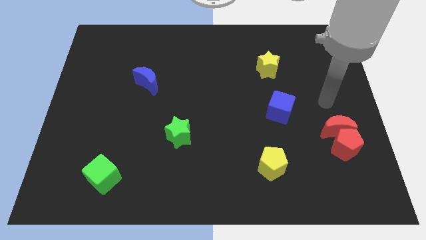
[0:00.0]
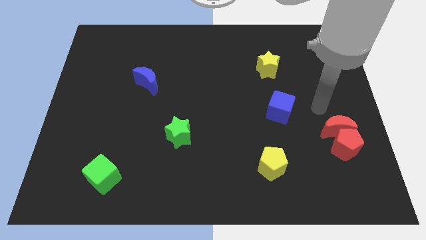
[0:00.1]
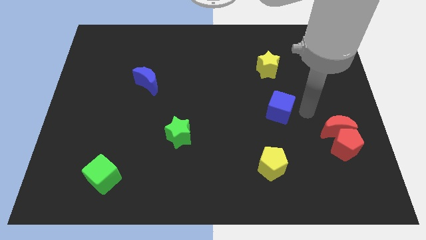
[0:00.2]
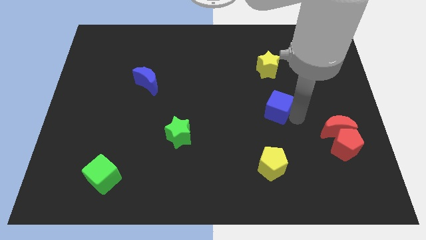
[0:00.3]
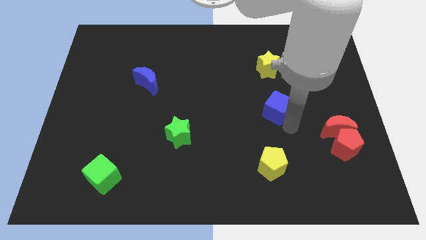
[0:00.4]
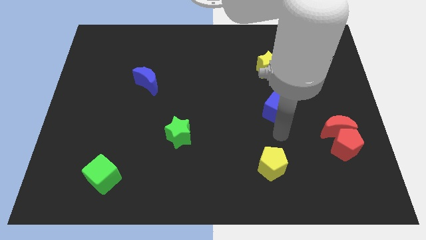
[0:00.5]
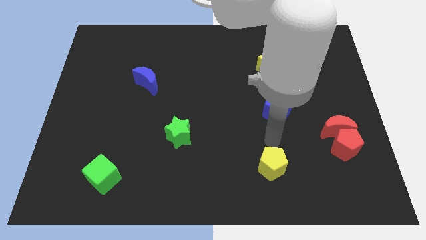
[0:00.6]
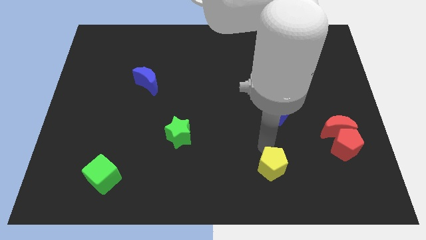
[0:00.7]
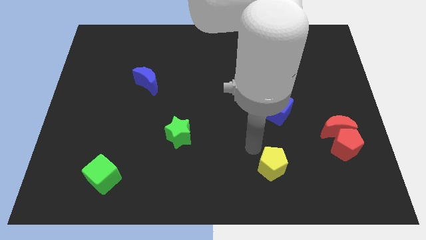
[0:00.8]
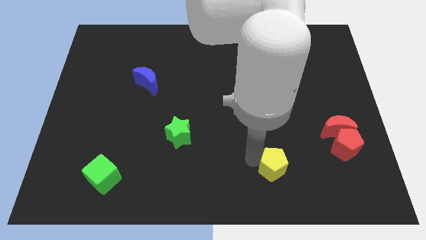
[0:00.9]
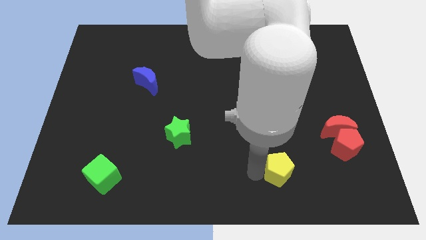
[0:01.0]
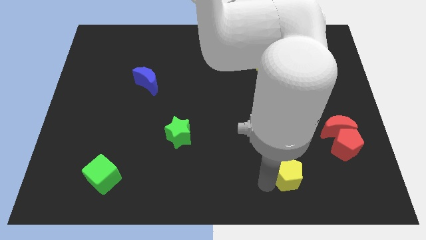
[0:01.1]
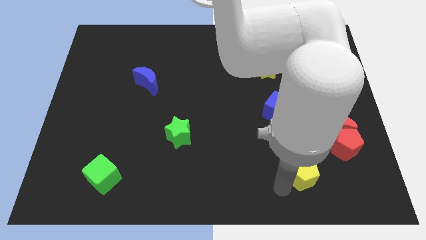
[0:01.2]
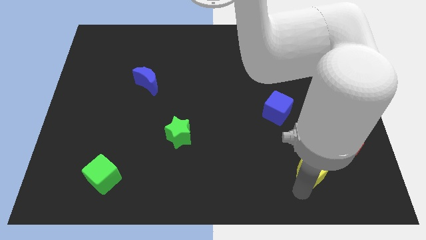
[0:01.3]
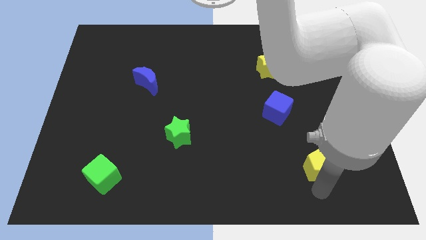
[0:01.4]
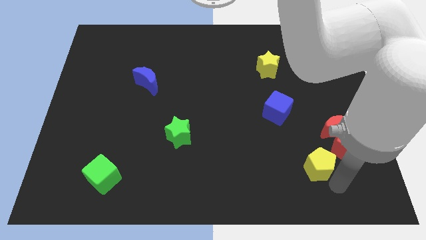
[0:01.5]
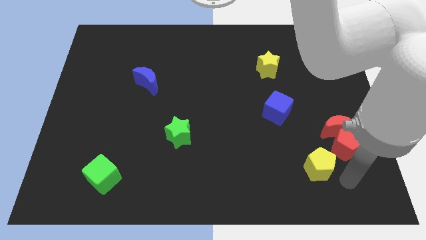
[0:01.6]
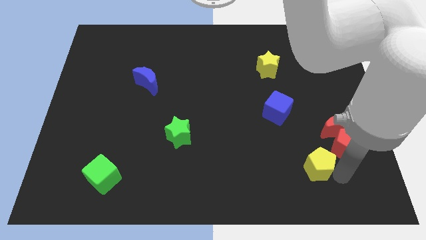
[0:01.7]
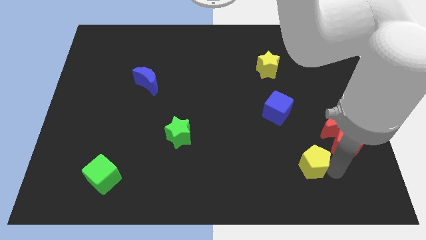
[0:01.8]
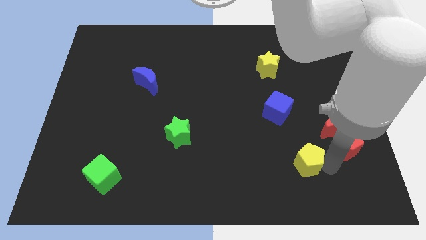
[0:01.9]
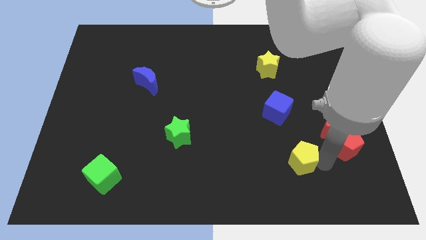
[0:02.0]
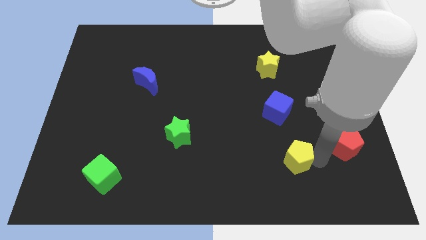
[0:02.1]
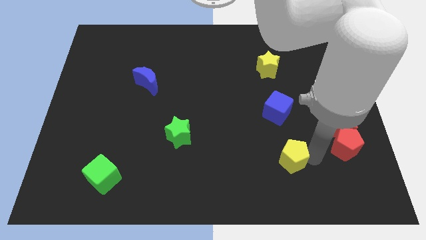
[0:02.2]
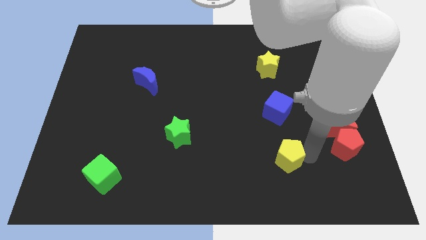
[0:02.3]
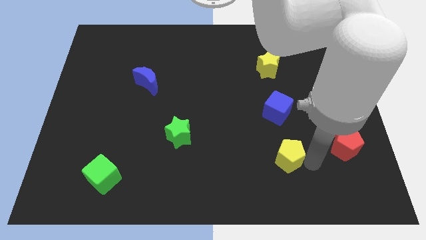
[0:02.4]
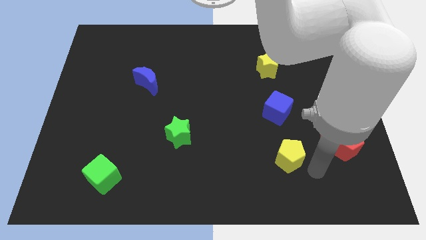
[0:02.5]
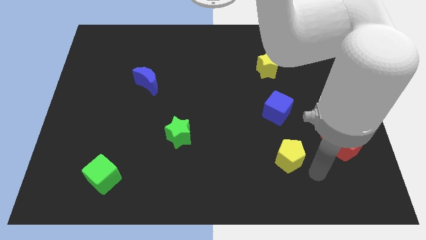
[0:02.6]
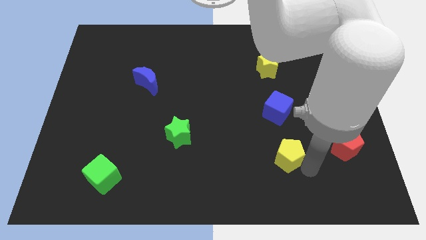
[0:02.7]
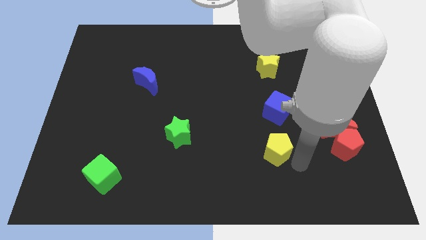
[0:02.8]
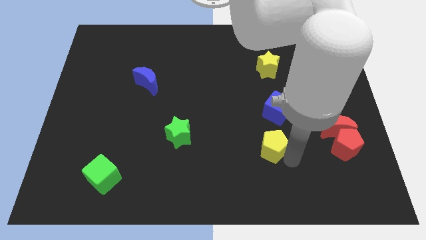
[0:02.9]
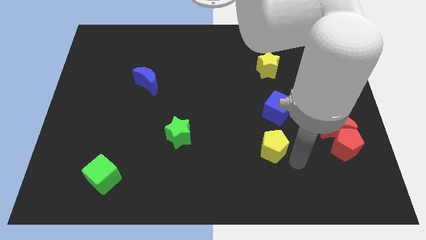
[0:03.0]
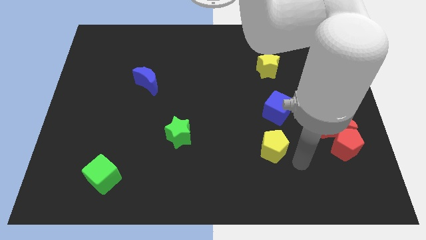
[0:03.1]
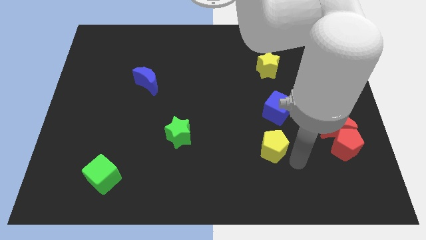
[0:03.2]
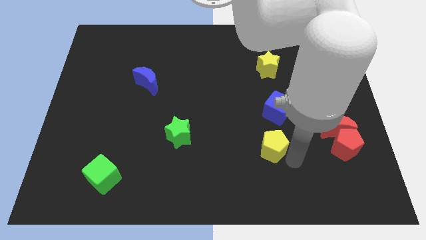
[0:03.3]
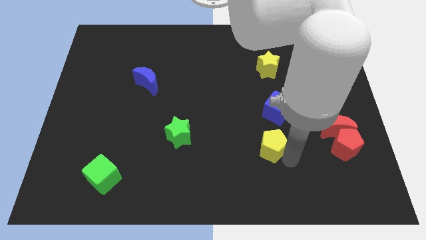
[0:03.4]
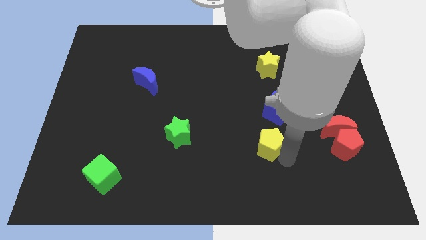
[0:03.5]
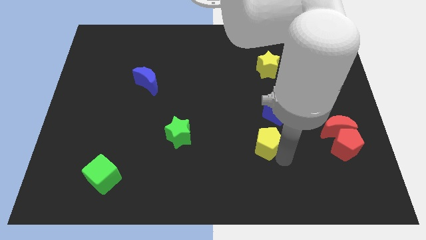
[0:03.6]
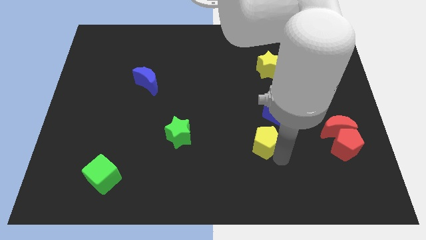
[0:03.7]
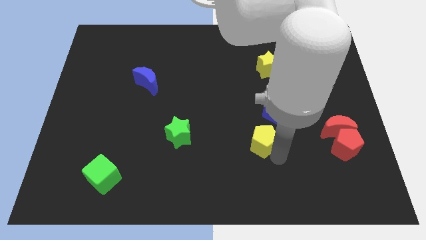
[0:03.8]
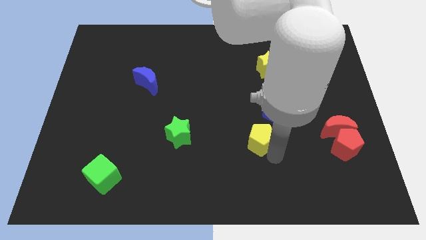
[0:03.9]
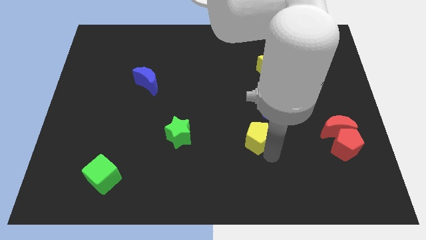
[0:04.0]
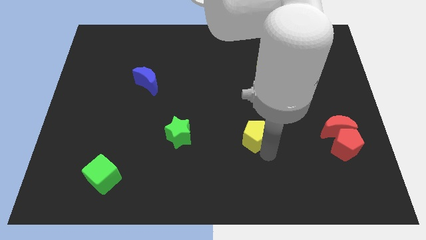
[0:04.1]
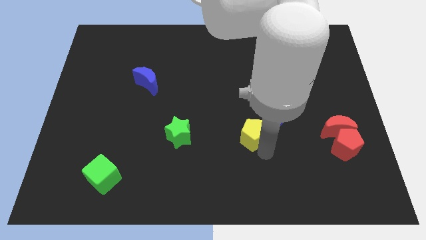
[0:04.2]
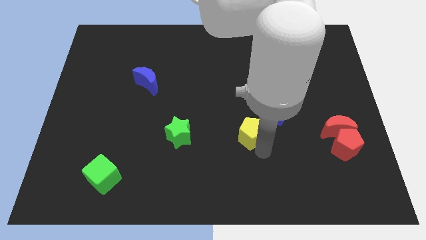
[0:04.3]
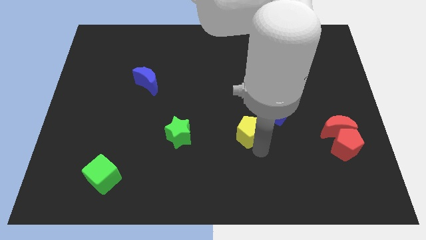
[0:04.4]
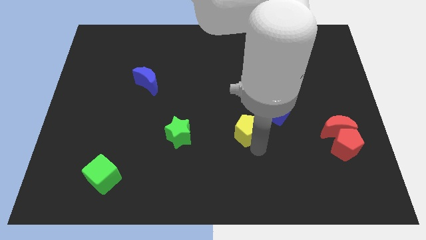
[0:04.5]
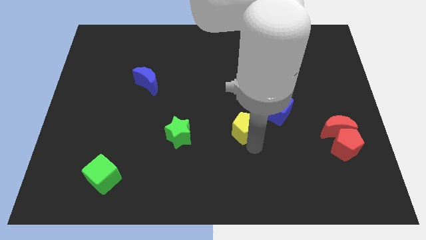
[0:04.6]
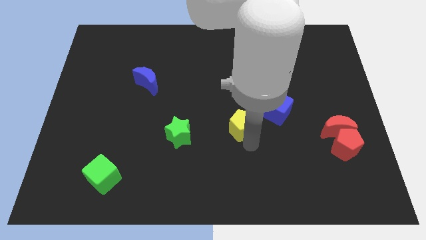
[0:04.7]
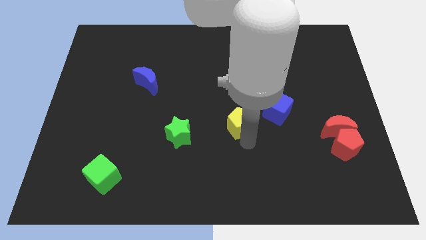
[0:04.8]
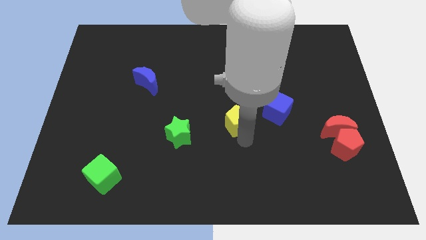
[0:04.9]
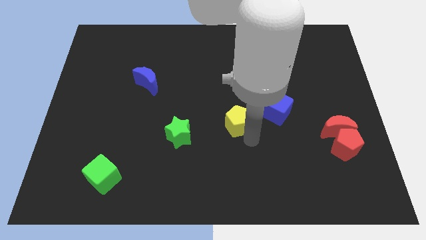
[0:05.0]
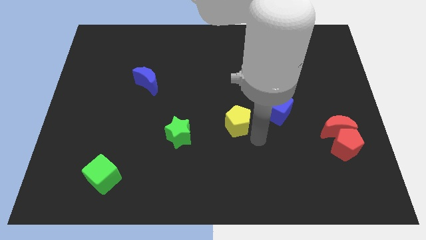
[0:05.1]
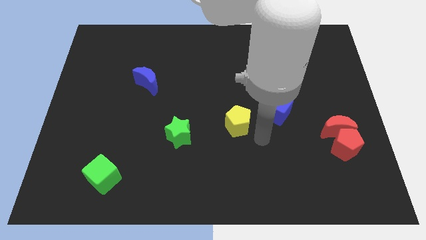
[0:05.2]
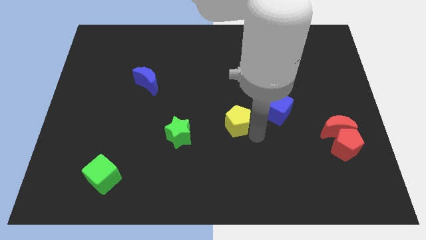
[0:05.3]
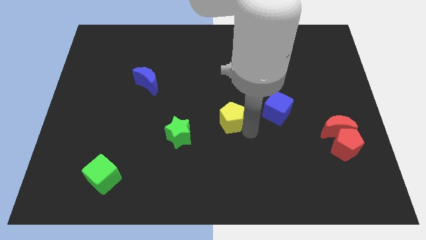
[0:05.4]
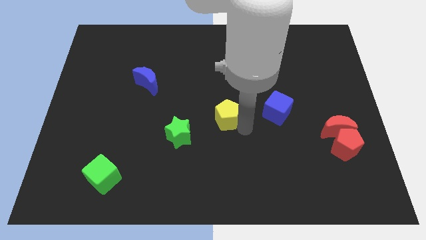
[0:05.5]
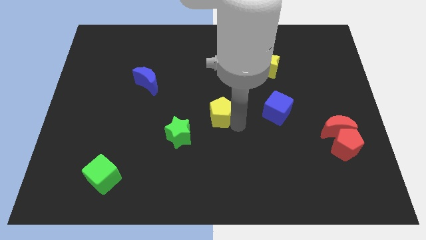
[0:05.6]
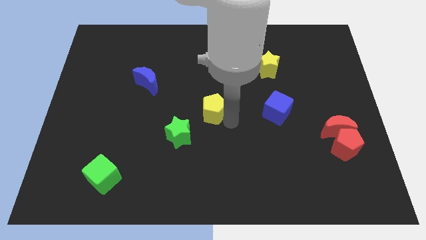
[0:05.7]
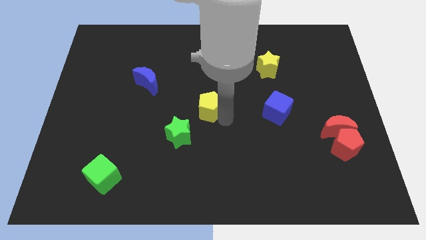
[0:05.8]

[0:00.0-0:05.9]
push the yellow pentagon upwards and to the left

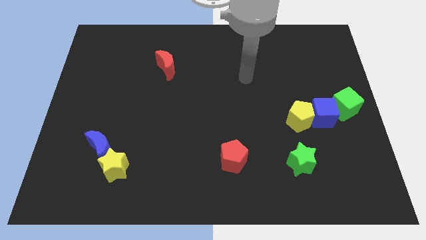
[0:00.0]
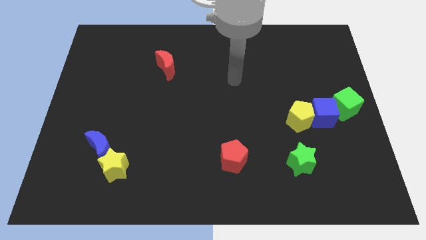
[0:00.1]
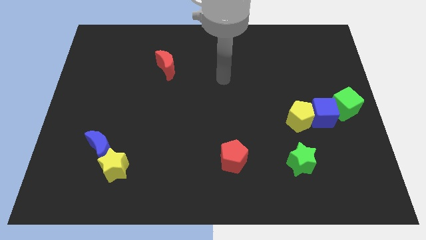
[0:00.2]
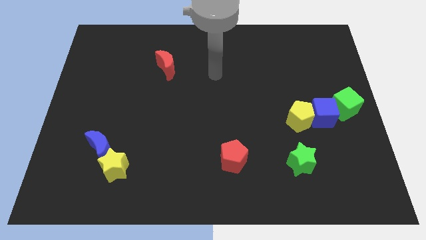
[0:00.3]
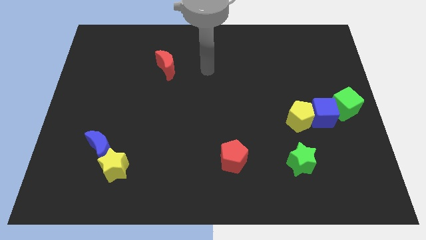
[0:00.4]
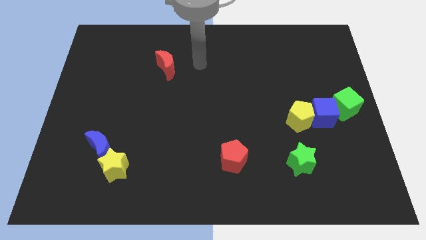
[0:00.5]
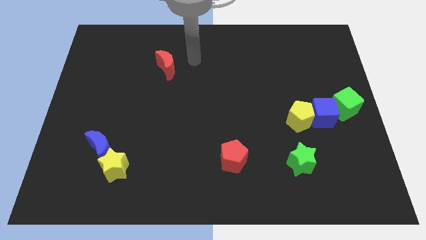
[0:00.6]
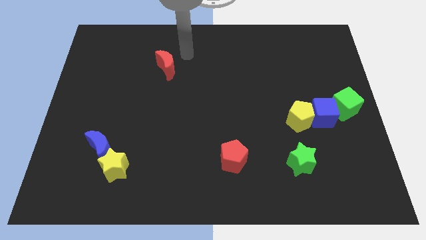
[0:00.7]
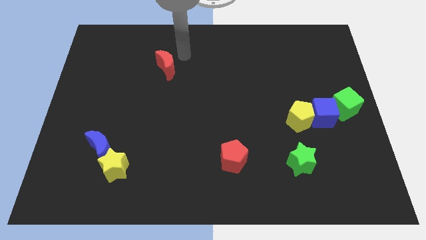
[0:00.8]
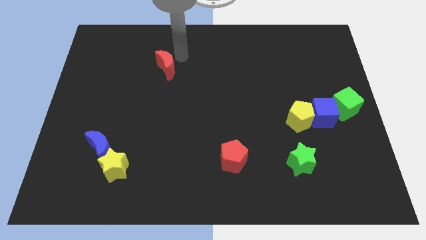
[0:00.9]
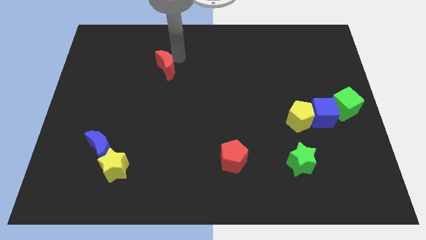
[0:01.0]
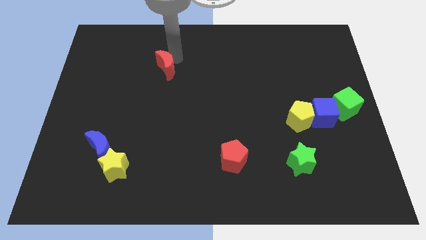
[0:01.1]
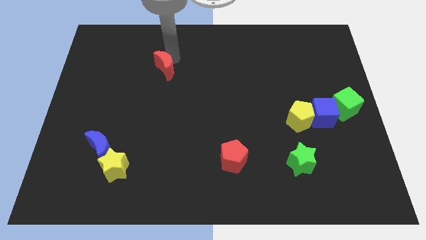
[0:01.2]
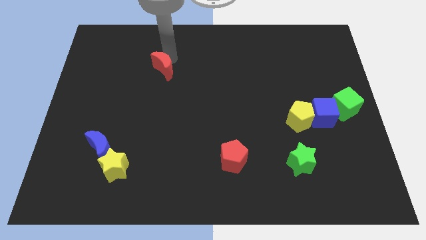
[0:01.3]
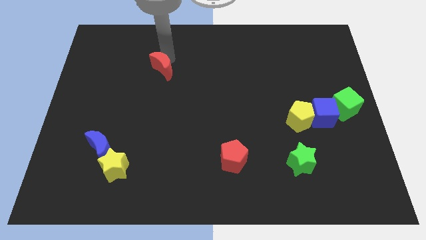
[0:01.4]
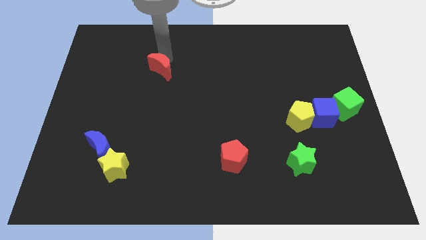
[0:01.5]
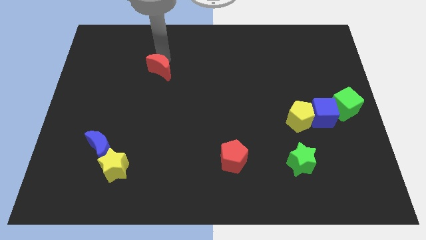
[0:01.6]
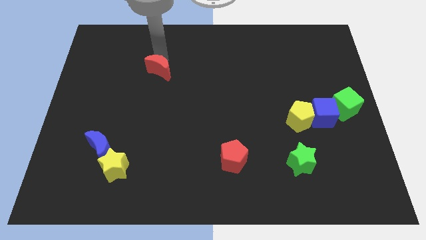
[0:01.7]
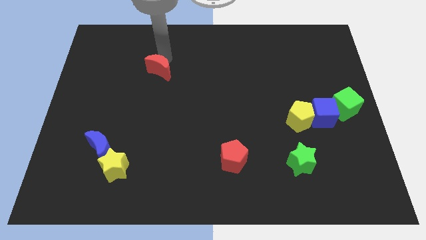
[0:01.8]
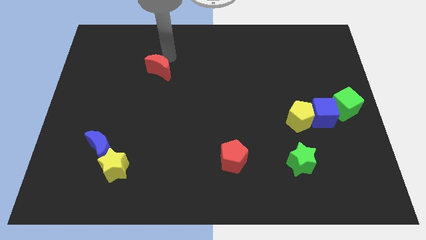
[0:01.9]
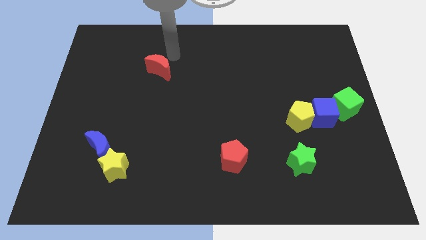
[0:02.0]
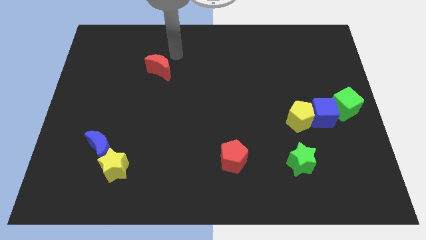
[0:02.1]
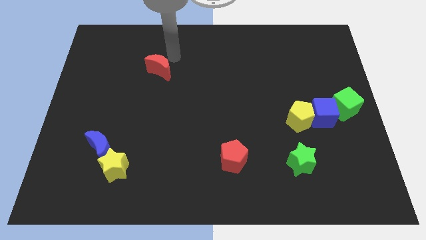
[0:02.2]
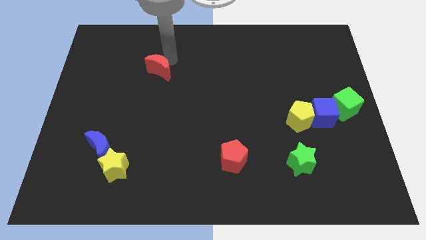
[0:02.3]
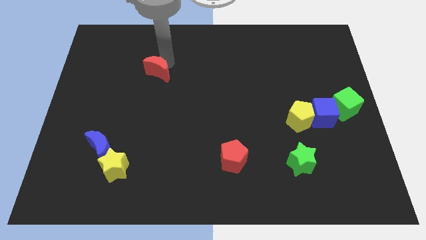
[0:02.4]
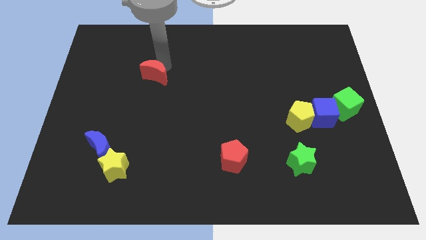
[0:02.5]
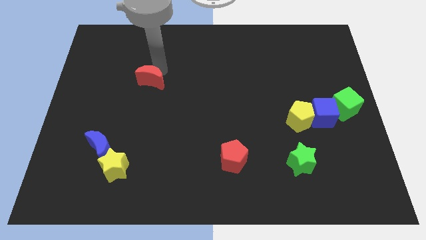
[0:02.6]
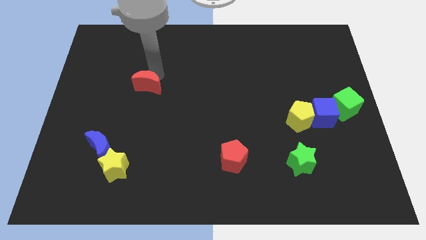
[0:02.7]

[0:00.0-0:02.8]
move the red moon downwards and to the left a little bit
